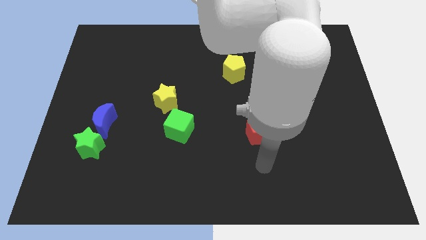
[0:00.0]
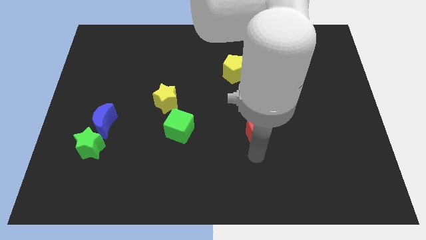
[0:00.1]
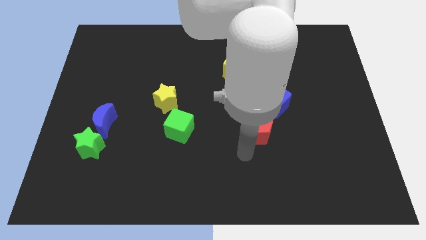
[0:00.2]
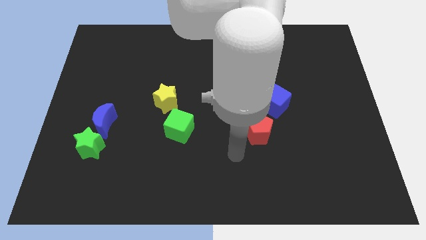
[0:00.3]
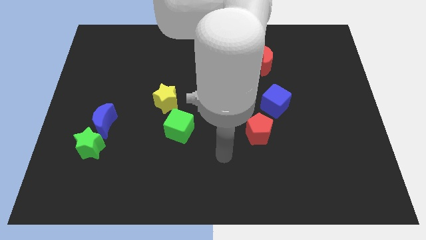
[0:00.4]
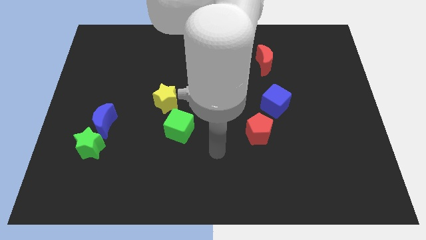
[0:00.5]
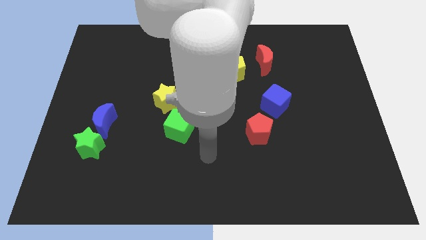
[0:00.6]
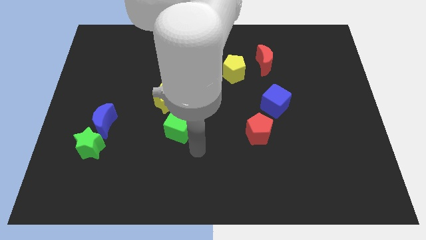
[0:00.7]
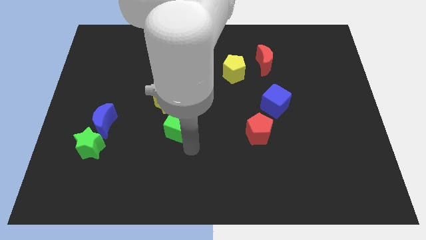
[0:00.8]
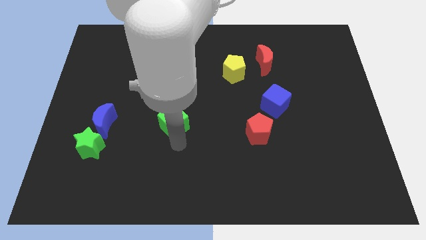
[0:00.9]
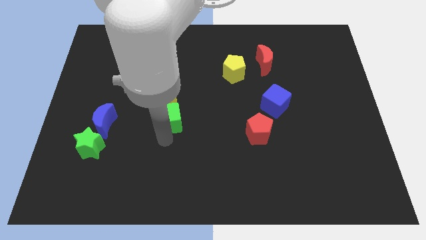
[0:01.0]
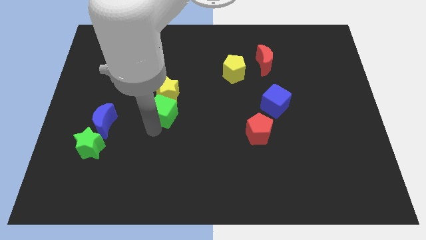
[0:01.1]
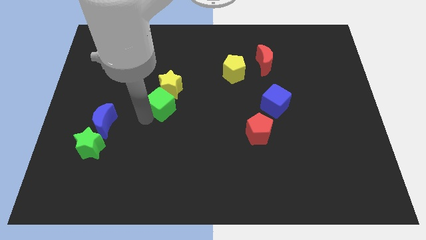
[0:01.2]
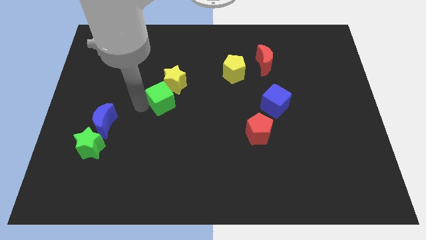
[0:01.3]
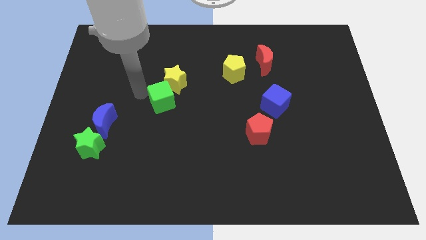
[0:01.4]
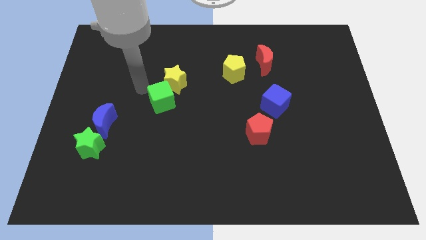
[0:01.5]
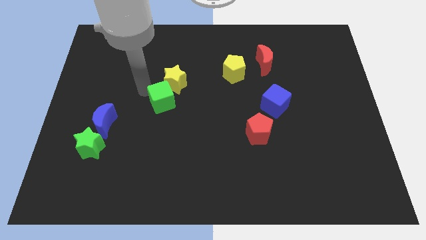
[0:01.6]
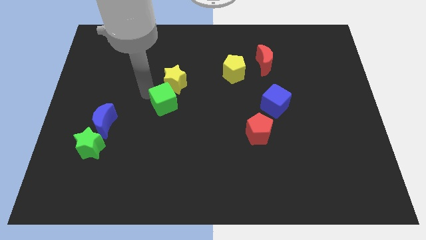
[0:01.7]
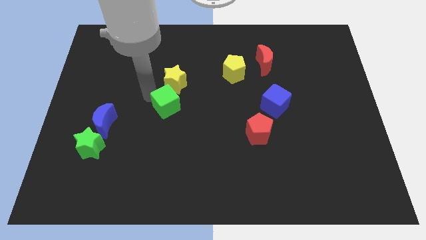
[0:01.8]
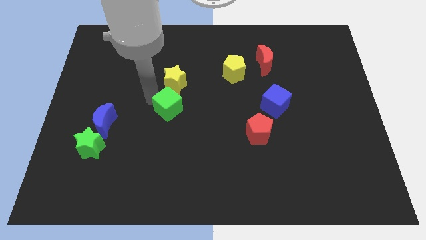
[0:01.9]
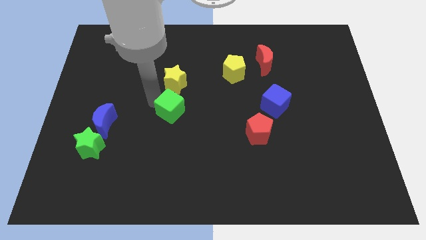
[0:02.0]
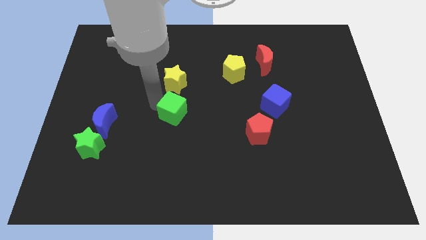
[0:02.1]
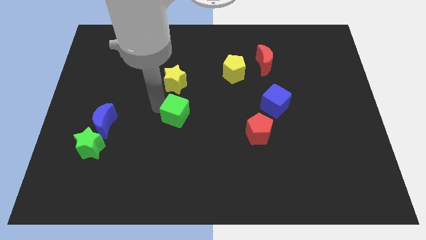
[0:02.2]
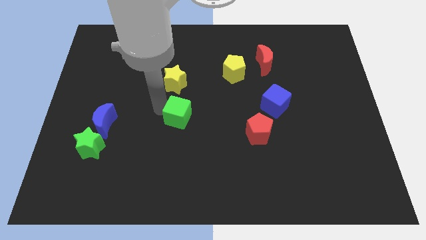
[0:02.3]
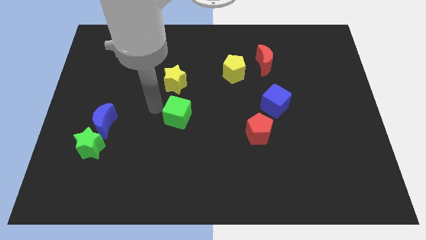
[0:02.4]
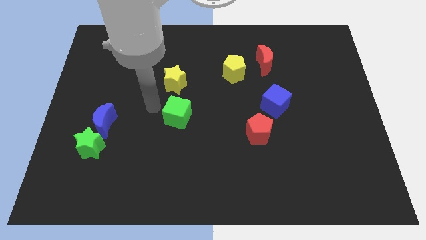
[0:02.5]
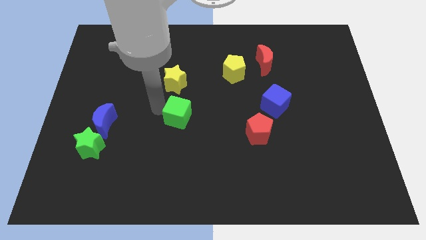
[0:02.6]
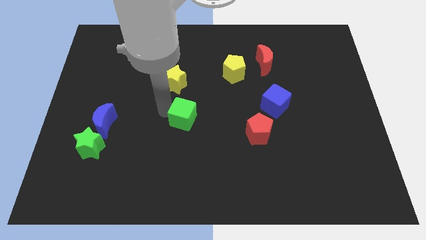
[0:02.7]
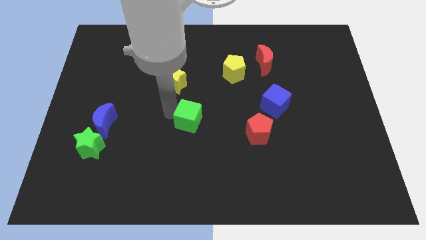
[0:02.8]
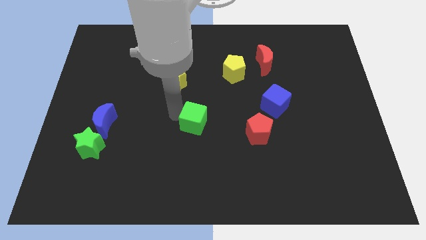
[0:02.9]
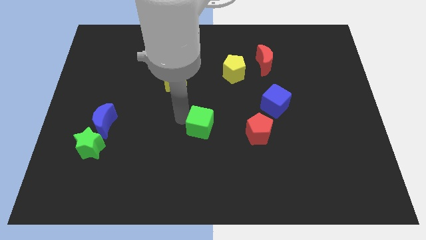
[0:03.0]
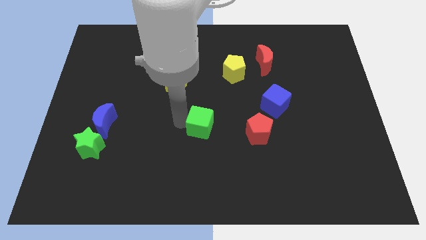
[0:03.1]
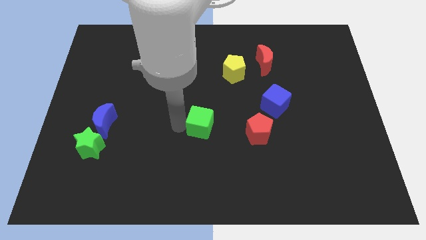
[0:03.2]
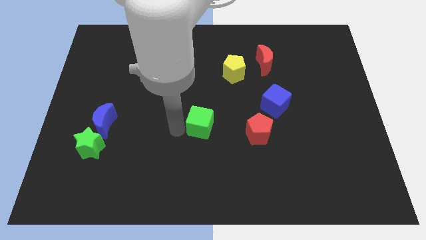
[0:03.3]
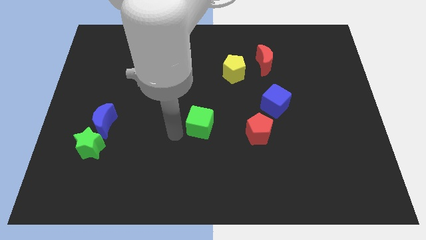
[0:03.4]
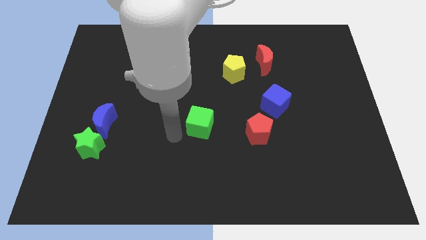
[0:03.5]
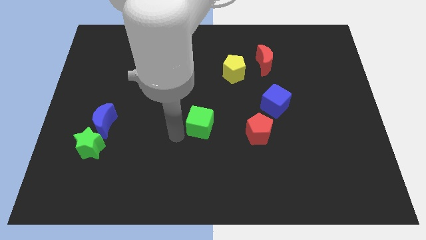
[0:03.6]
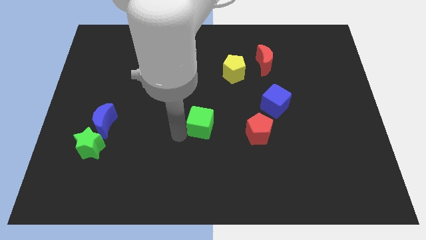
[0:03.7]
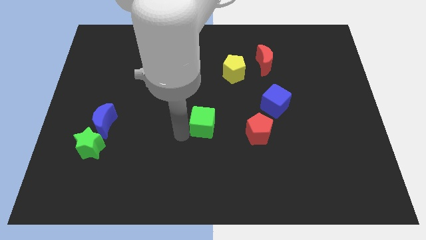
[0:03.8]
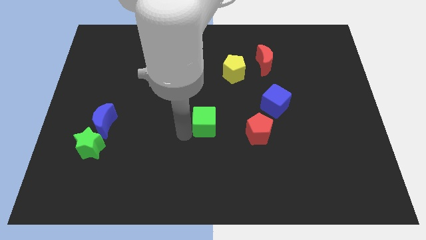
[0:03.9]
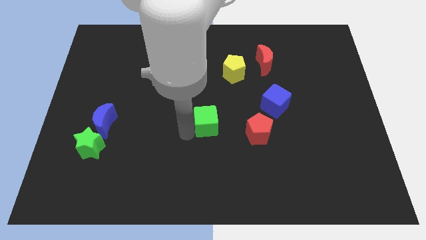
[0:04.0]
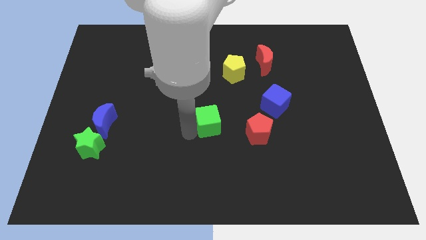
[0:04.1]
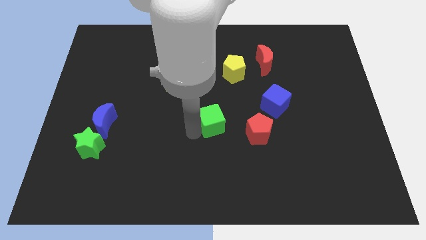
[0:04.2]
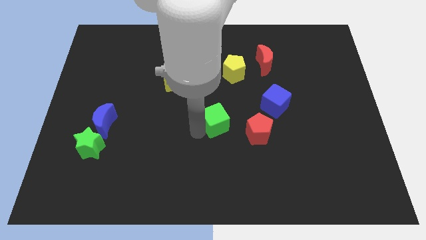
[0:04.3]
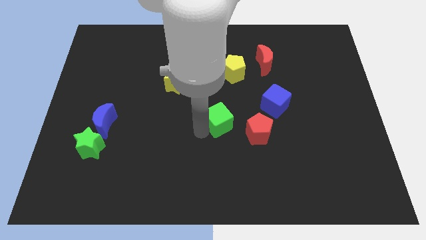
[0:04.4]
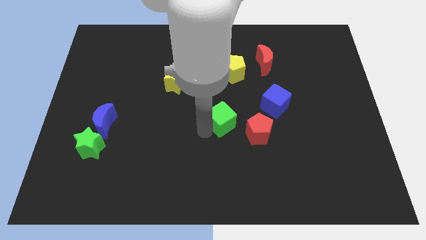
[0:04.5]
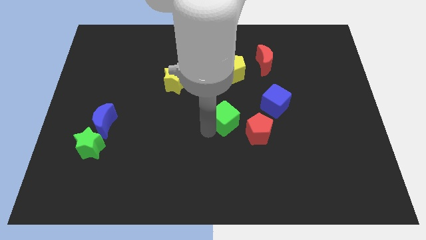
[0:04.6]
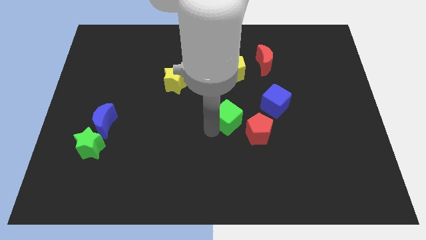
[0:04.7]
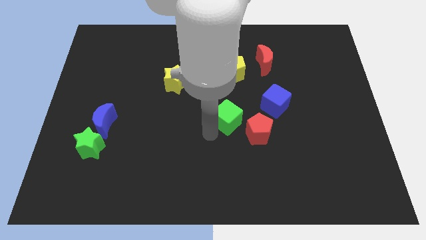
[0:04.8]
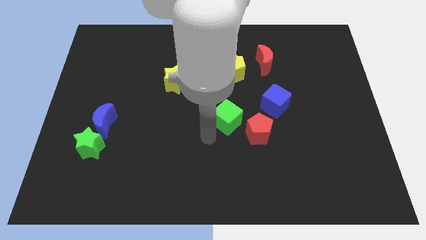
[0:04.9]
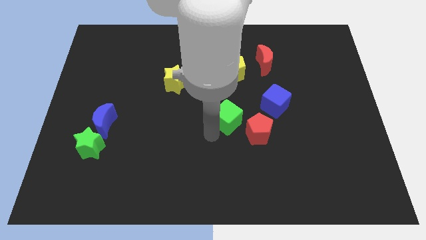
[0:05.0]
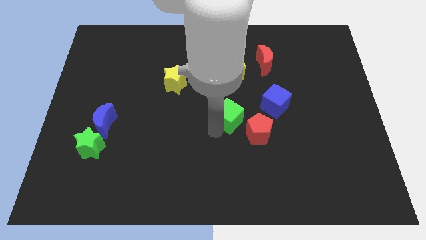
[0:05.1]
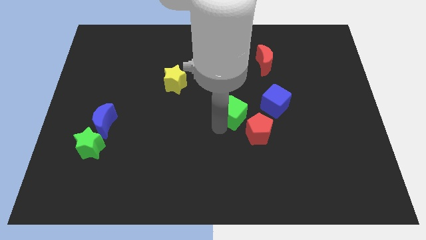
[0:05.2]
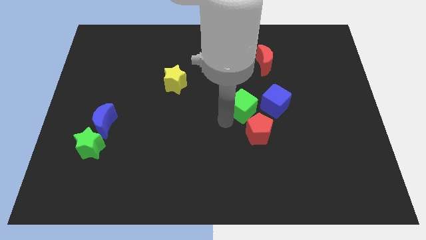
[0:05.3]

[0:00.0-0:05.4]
move the green cube to the top side of the red pentagon

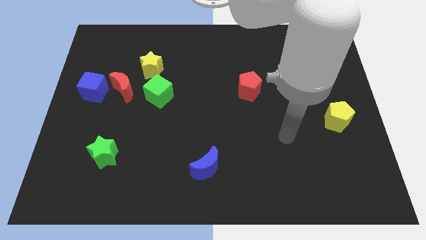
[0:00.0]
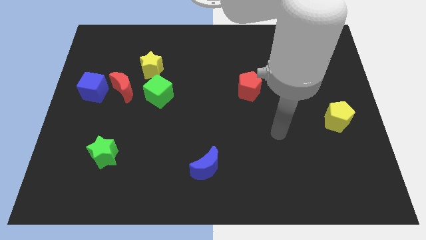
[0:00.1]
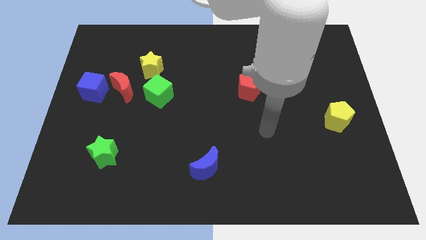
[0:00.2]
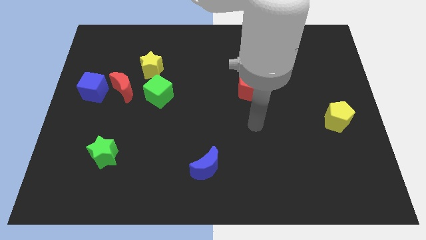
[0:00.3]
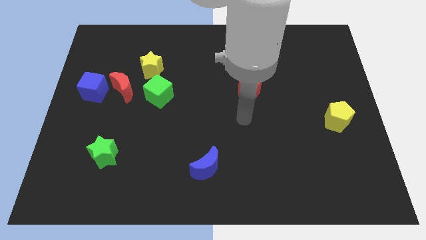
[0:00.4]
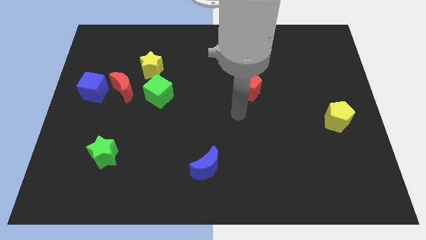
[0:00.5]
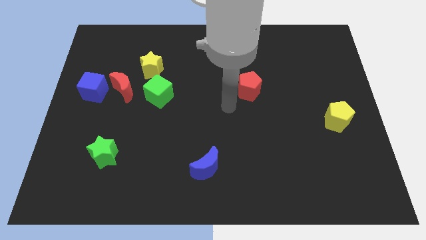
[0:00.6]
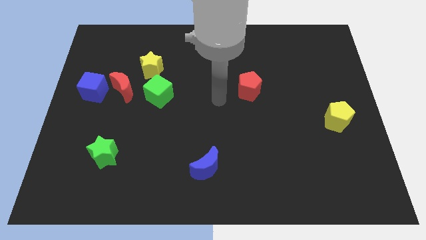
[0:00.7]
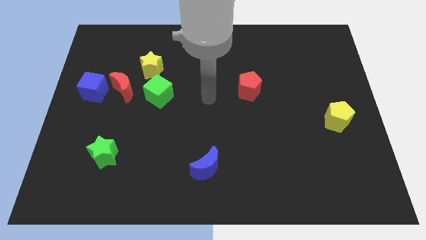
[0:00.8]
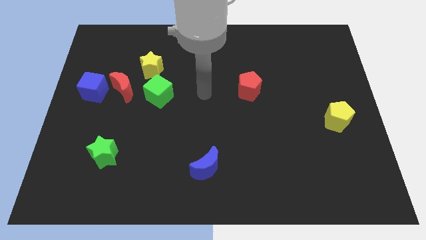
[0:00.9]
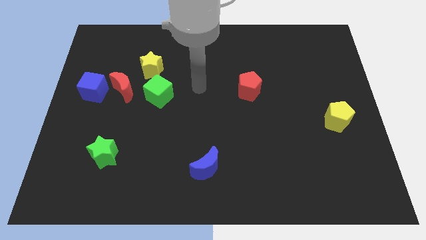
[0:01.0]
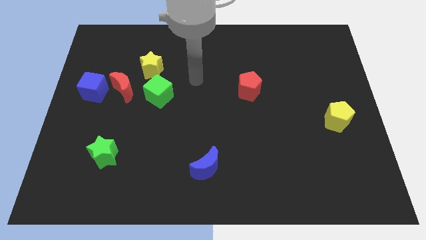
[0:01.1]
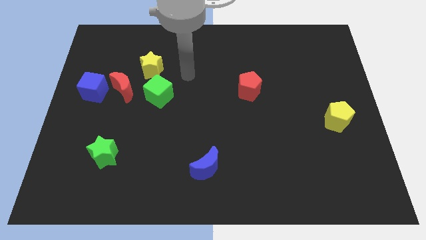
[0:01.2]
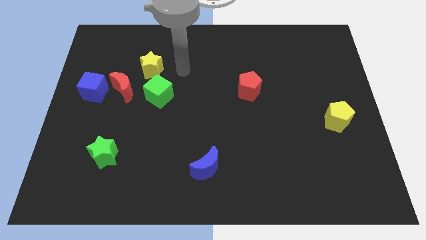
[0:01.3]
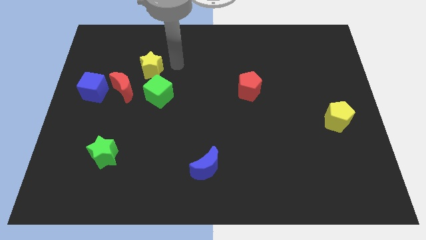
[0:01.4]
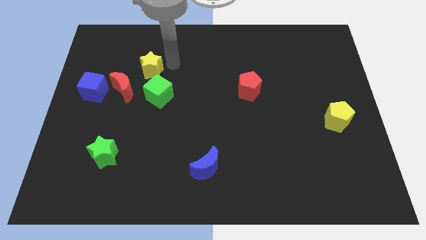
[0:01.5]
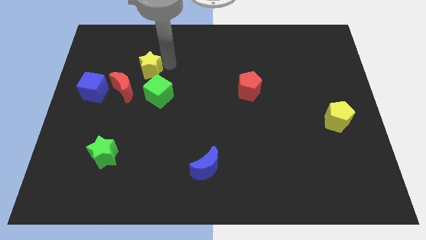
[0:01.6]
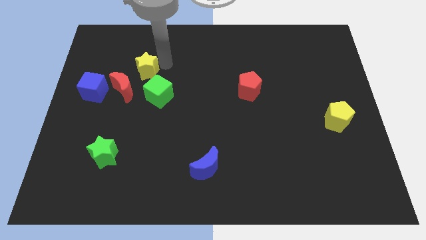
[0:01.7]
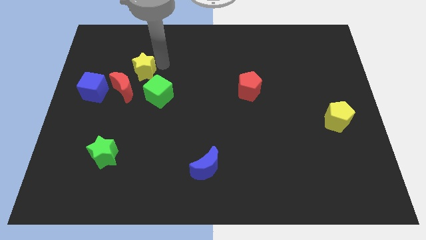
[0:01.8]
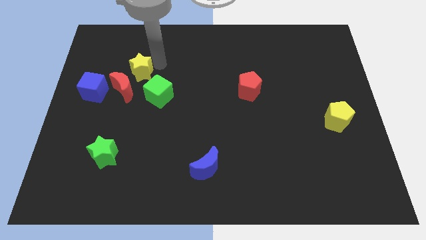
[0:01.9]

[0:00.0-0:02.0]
slide the yellow star diagonally up and to the right of the blue cube
